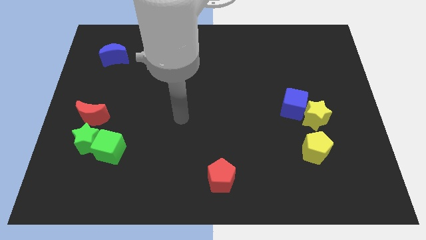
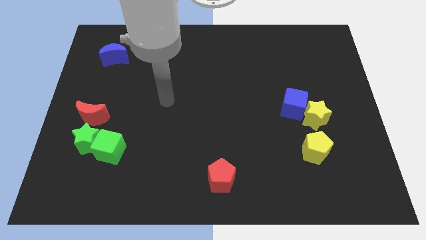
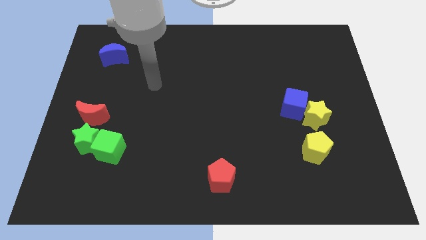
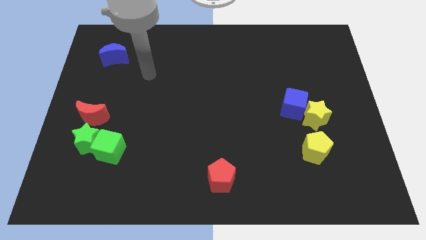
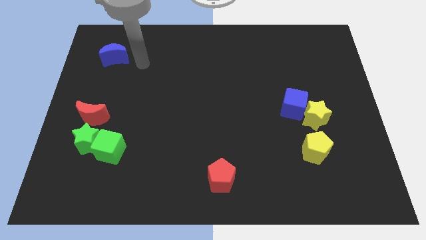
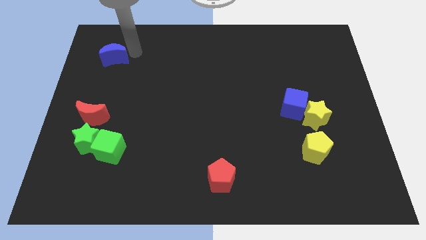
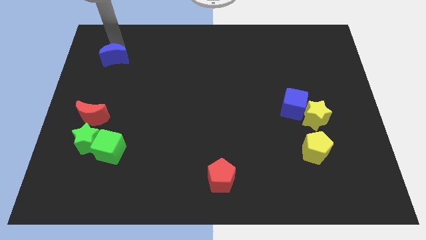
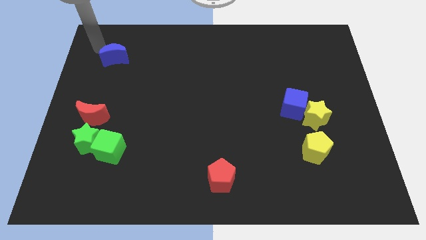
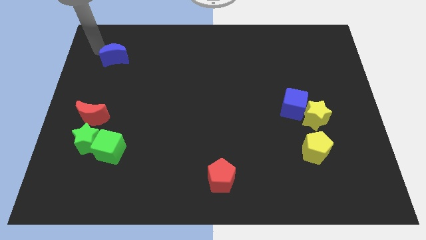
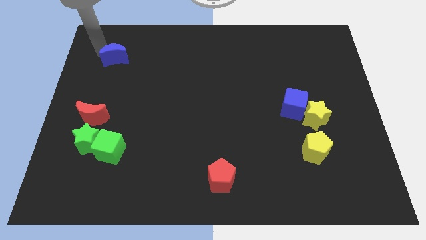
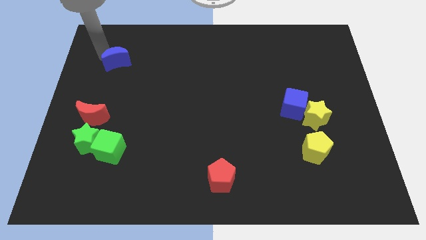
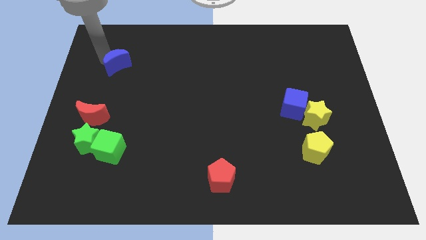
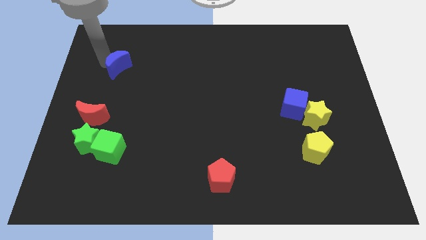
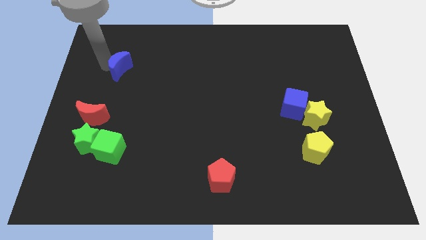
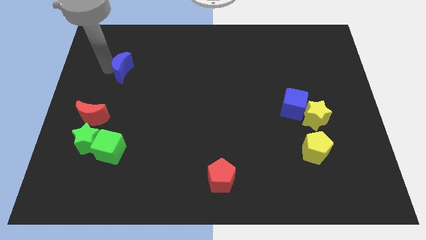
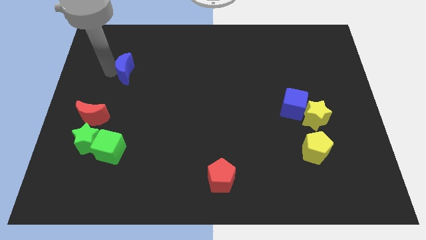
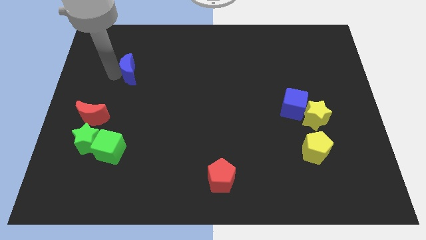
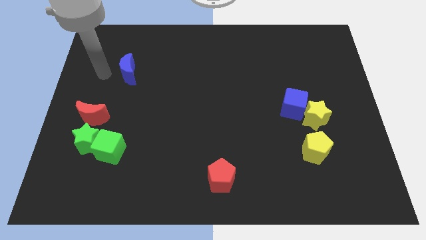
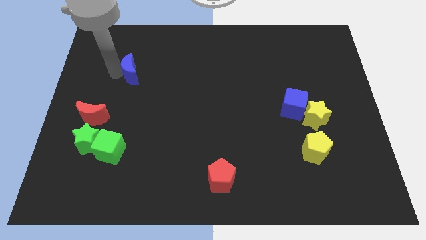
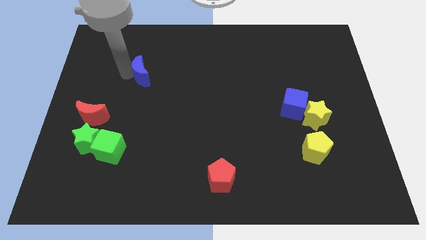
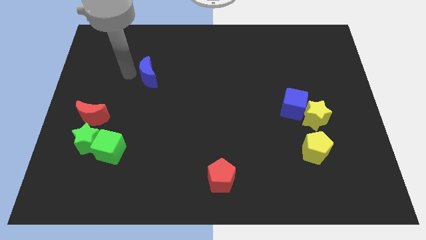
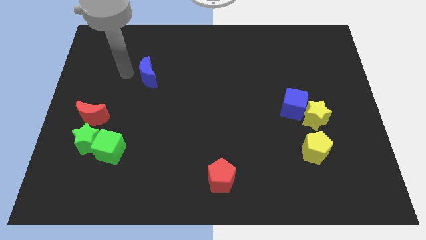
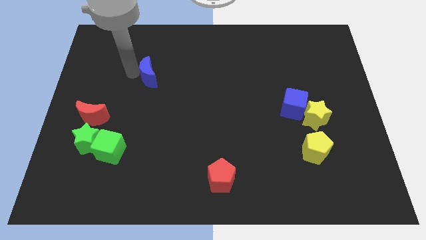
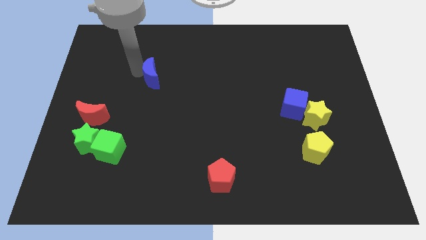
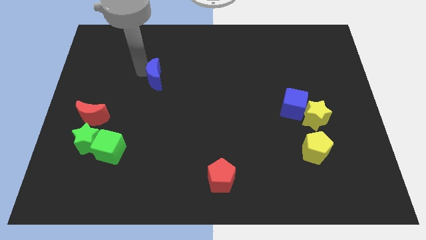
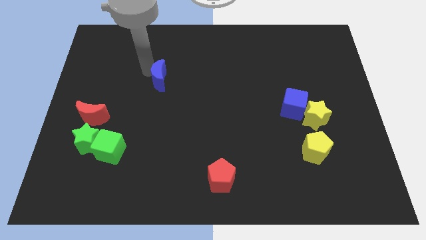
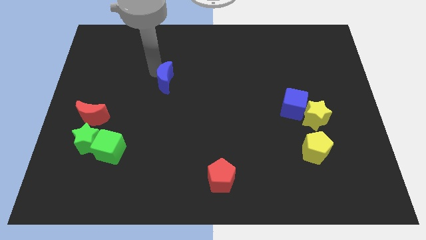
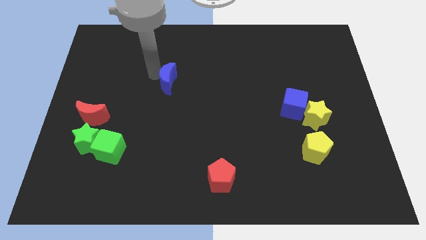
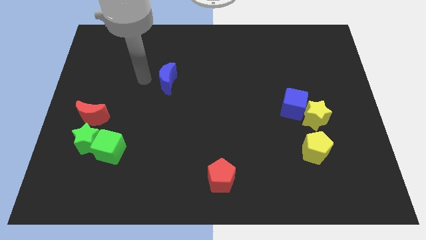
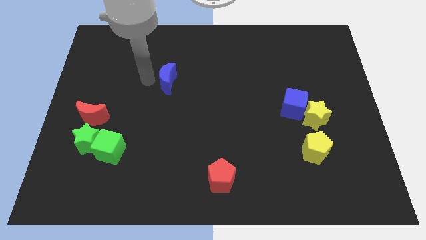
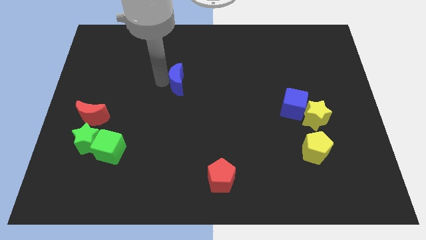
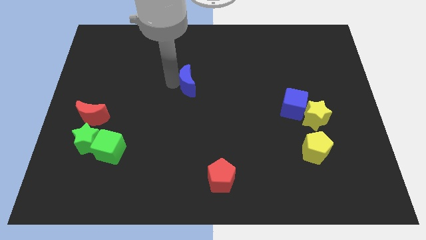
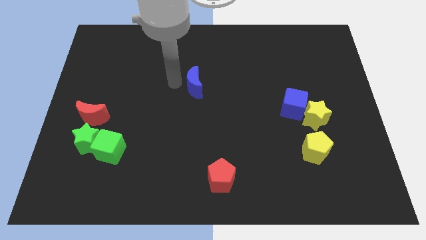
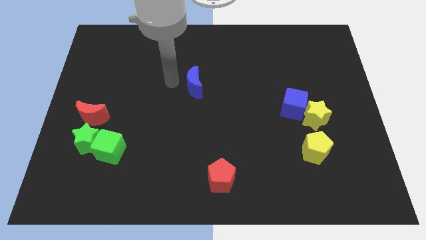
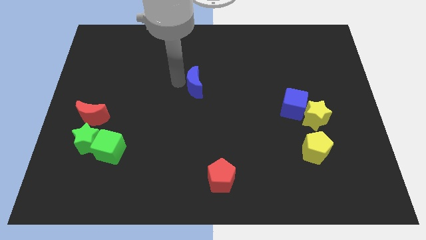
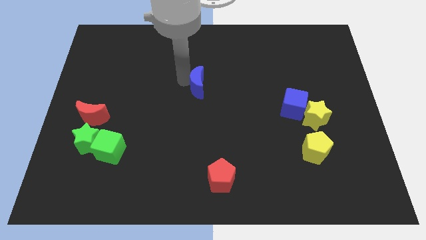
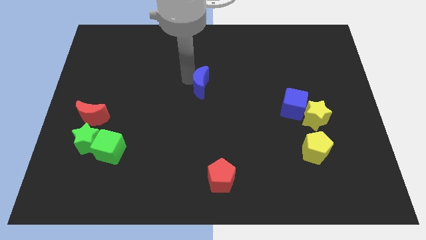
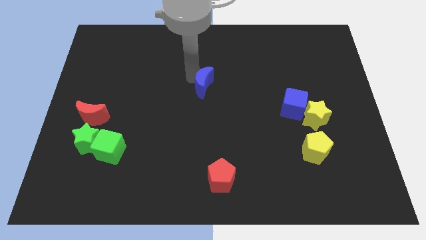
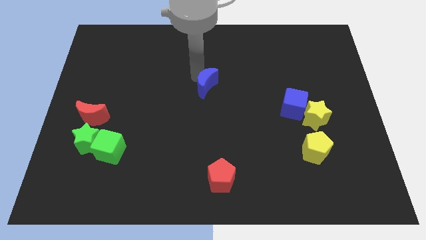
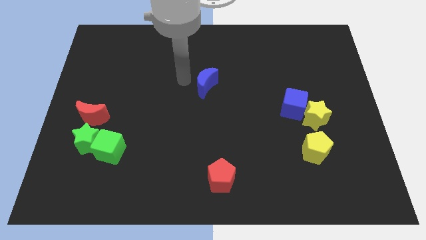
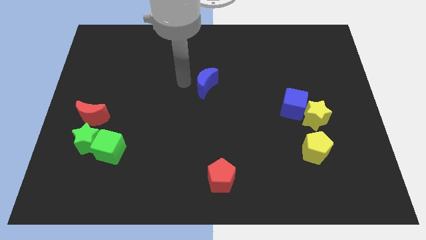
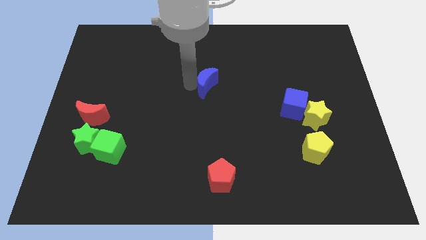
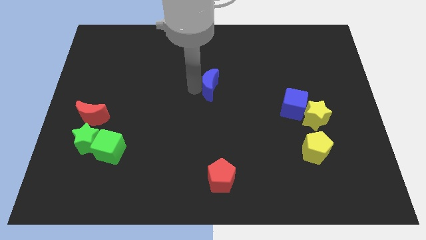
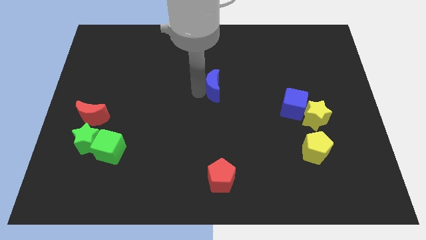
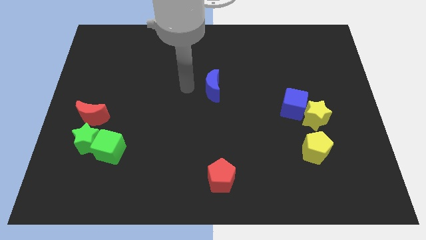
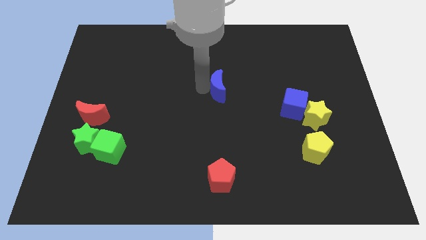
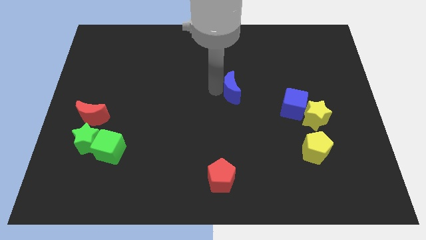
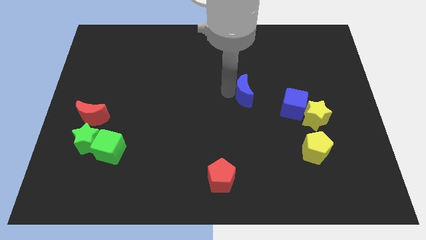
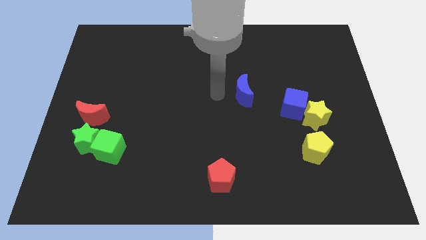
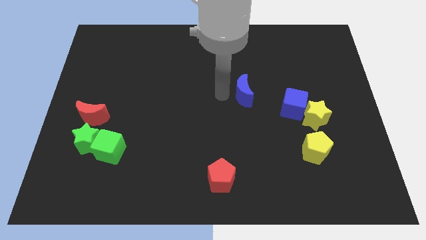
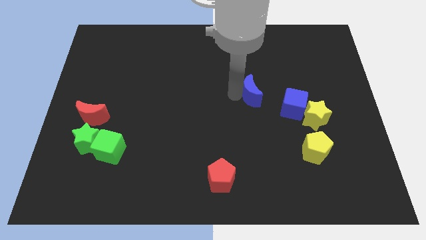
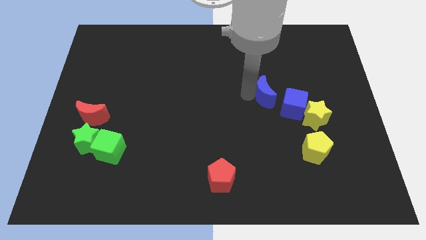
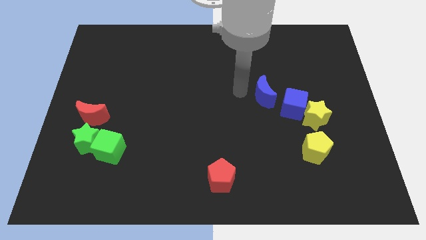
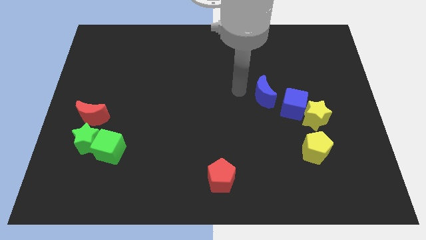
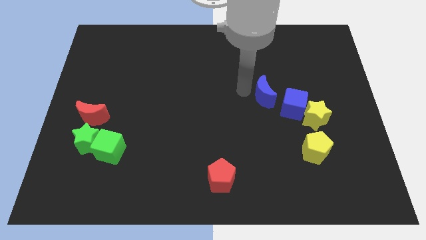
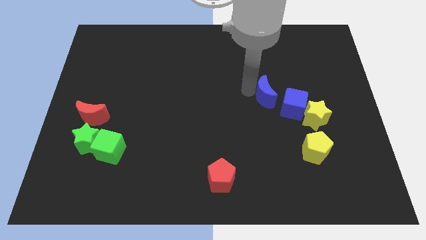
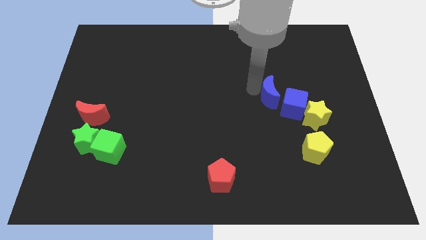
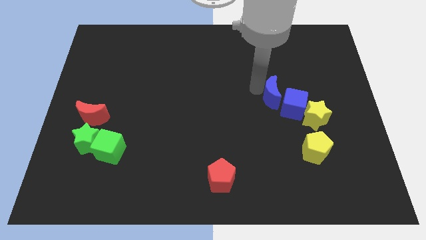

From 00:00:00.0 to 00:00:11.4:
put the blue moon to the blue cube

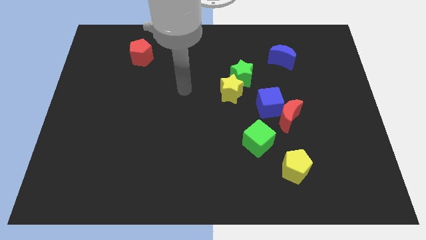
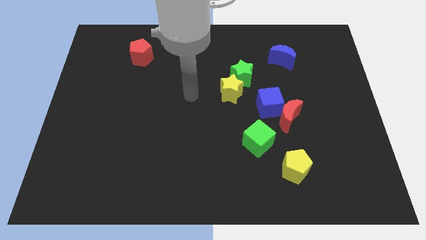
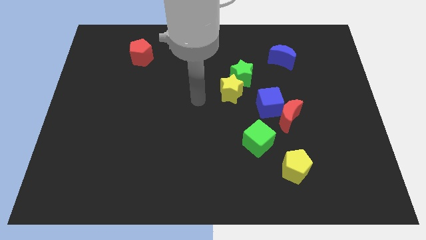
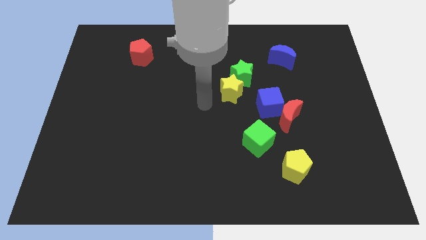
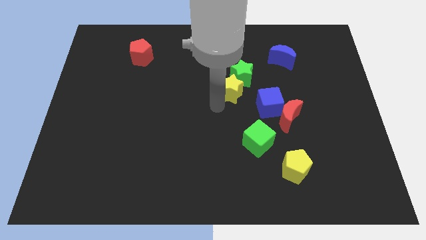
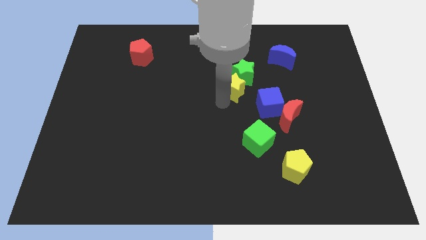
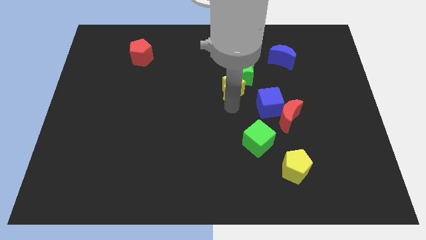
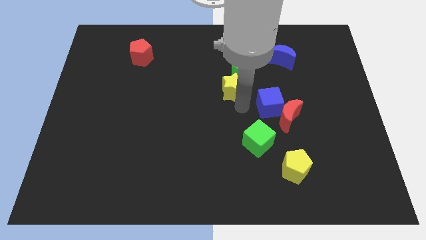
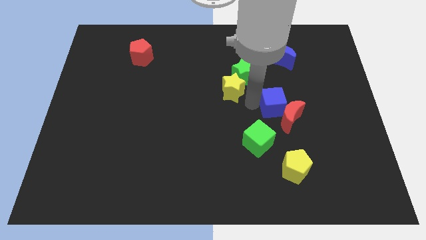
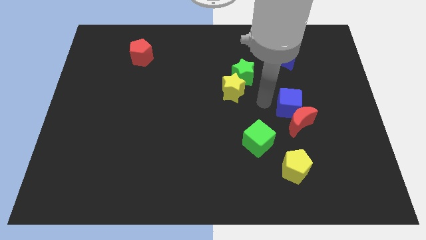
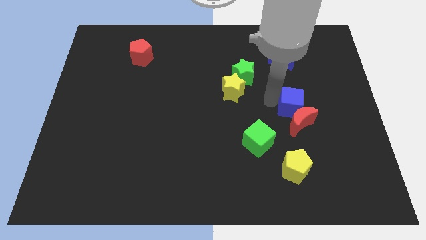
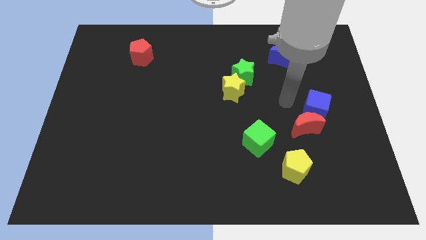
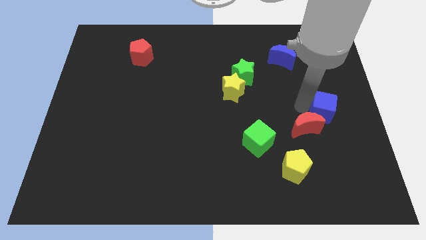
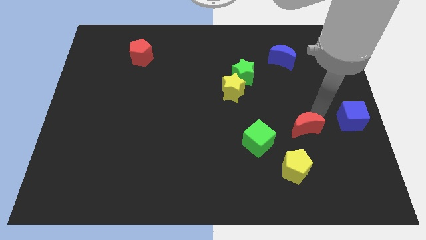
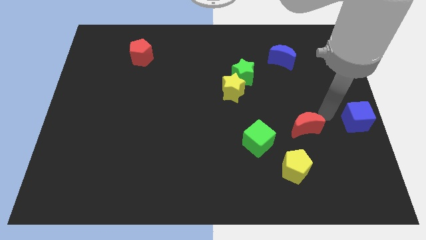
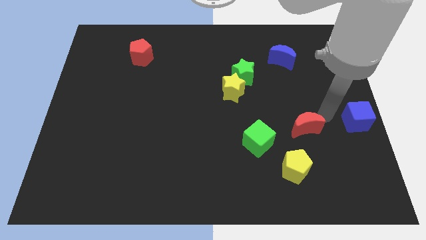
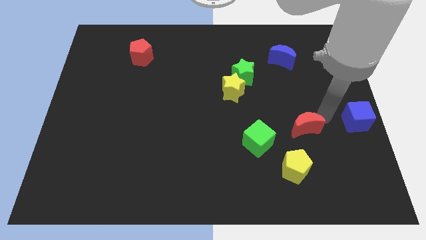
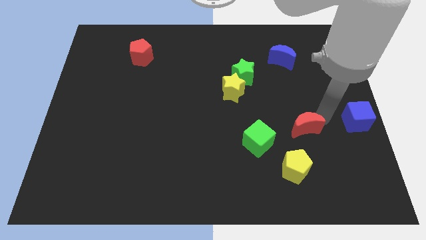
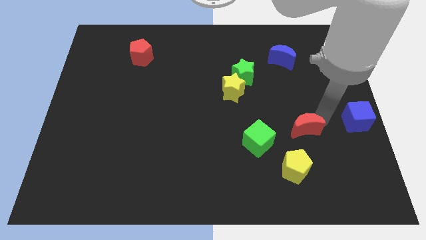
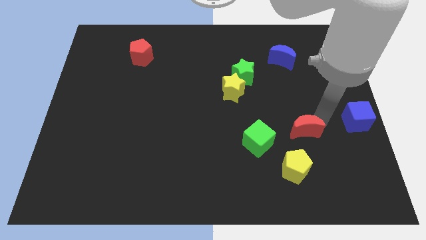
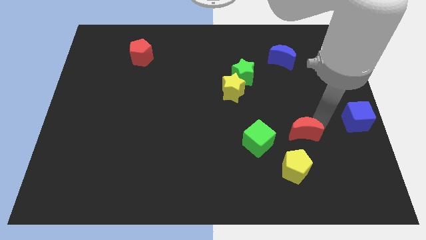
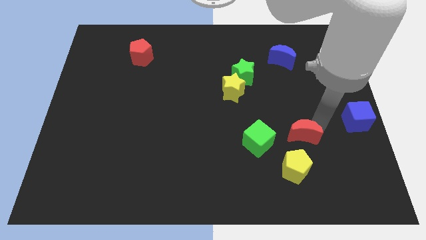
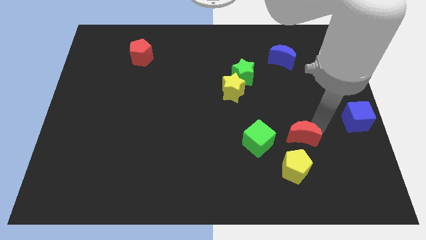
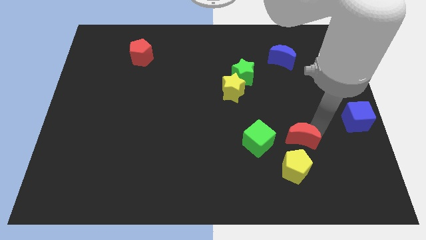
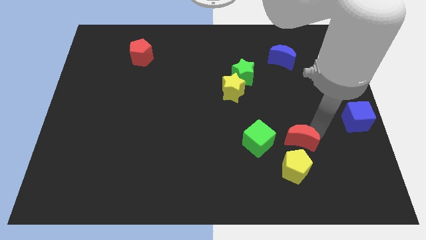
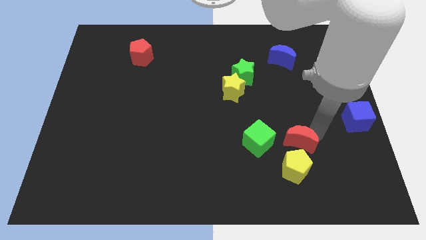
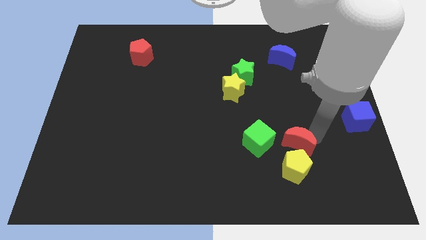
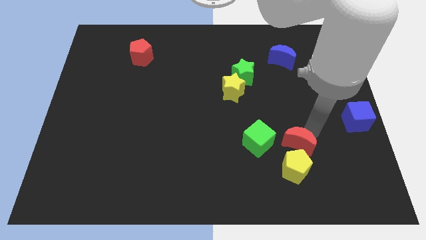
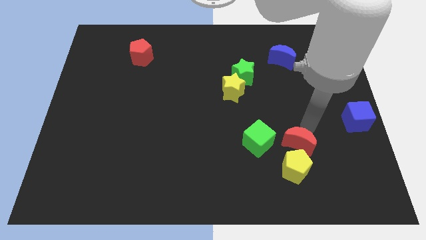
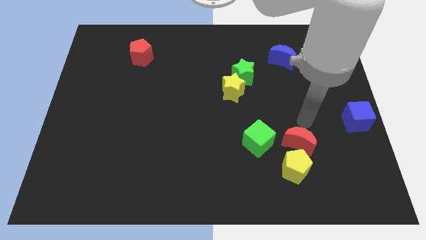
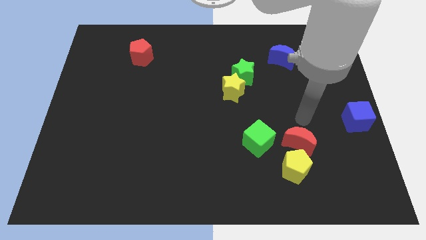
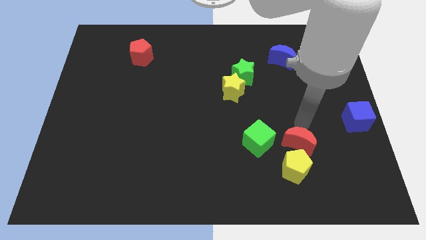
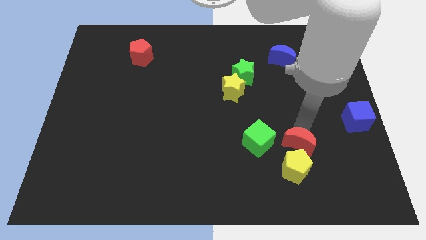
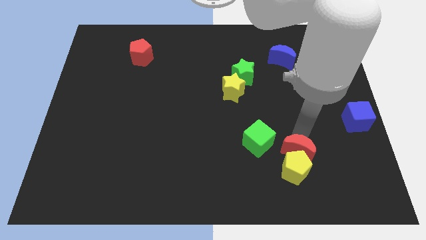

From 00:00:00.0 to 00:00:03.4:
slide the red moon to the yellow pentagon
